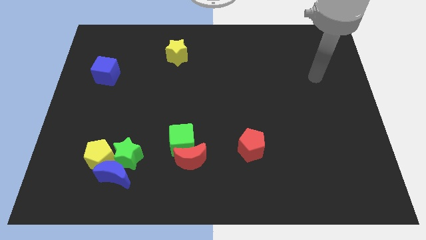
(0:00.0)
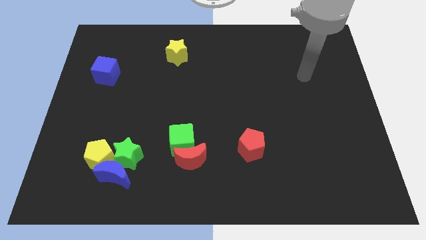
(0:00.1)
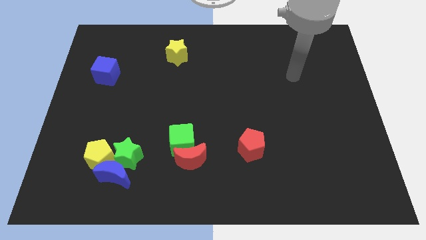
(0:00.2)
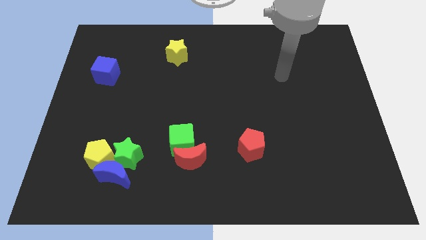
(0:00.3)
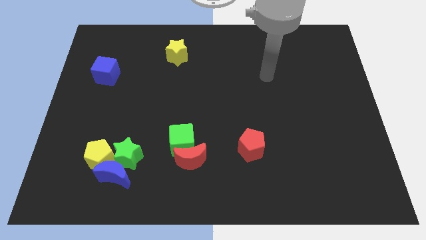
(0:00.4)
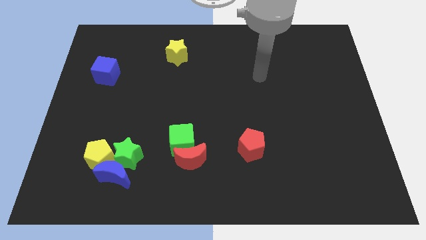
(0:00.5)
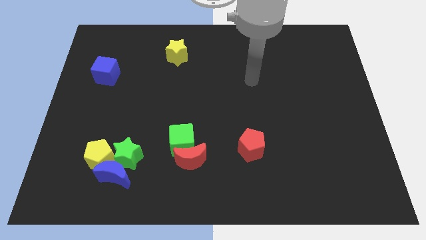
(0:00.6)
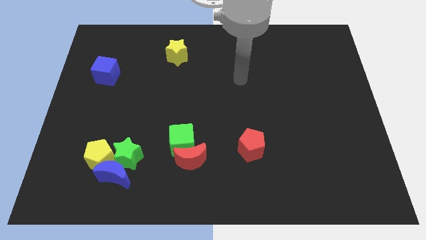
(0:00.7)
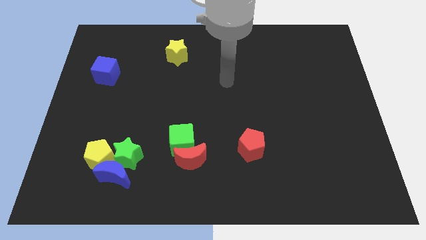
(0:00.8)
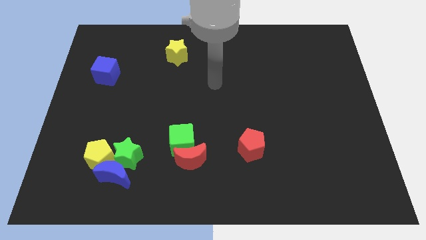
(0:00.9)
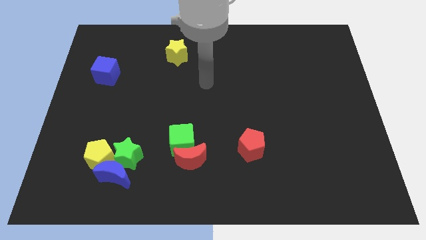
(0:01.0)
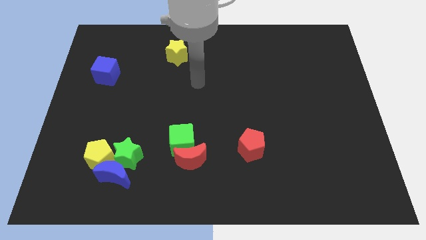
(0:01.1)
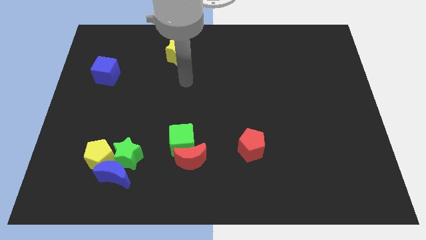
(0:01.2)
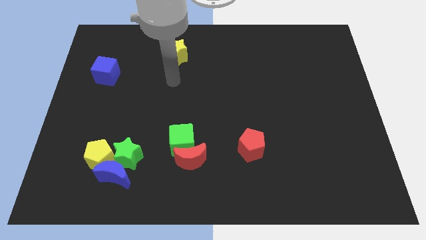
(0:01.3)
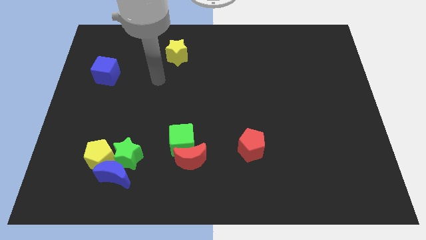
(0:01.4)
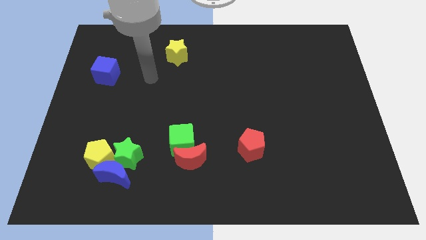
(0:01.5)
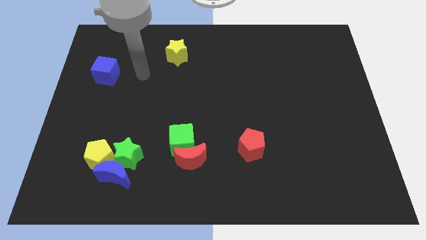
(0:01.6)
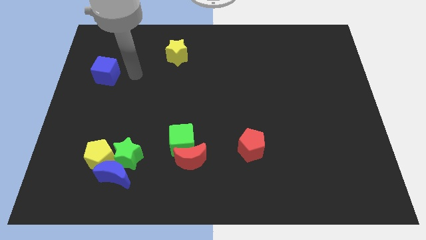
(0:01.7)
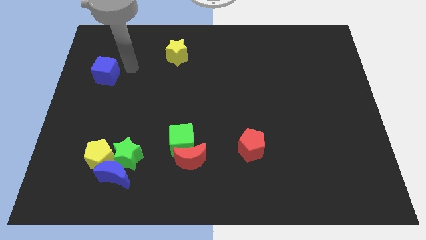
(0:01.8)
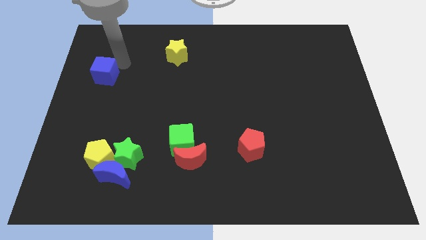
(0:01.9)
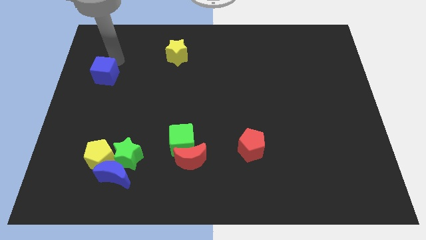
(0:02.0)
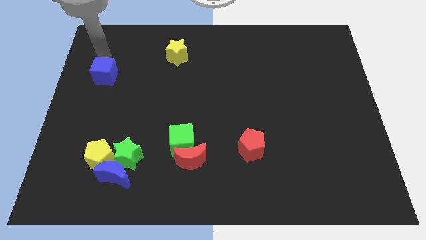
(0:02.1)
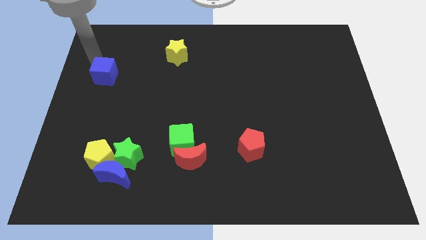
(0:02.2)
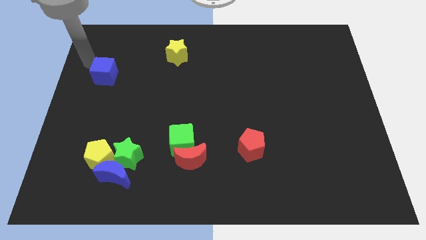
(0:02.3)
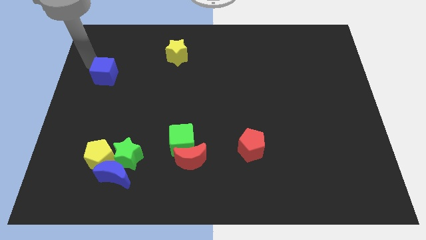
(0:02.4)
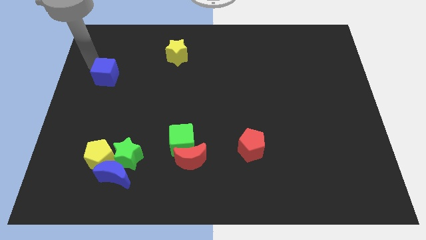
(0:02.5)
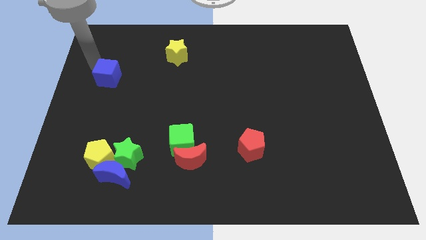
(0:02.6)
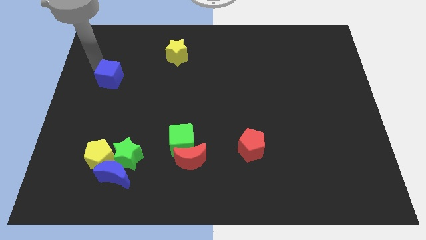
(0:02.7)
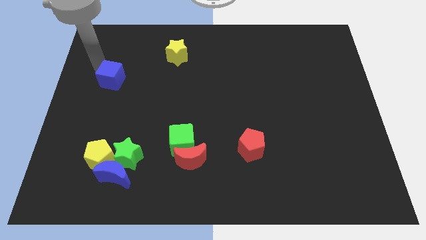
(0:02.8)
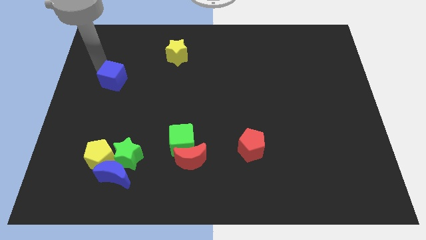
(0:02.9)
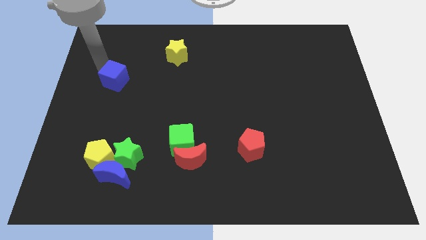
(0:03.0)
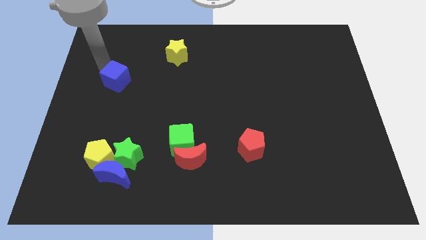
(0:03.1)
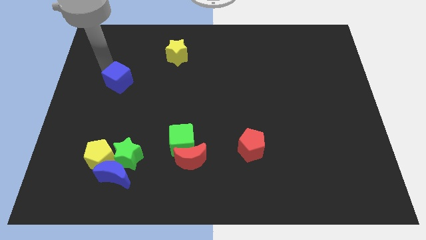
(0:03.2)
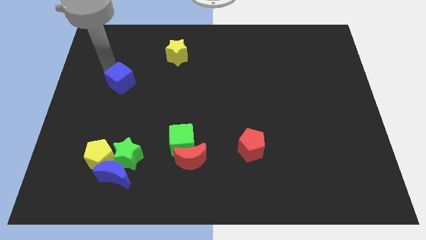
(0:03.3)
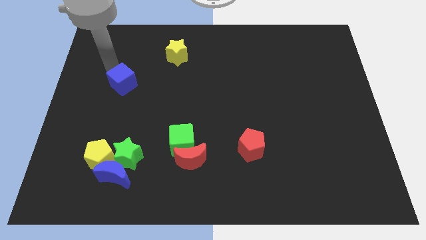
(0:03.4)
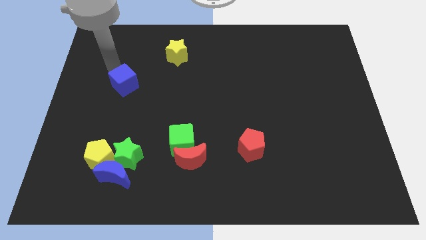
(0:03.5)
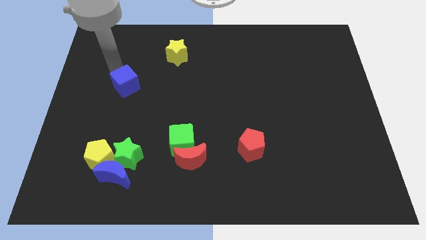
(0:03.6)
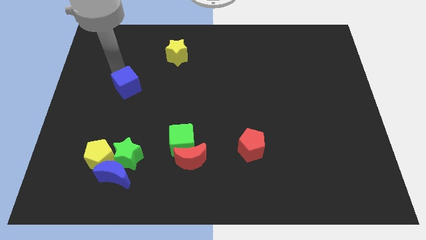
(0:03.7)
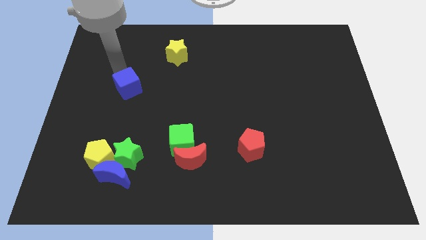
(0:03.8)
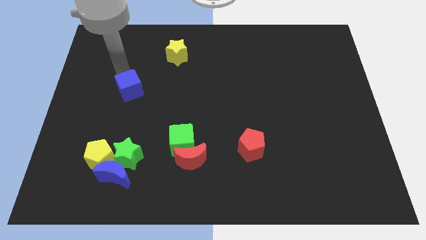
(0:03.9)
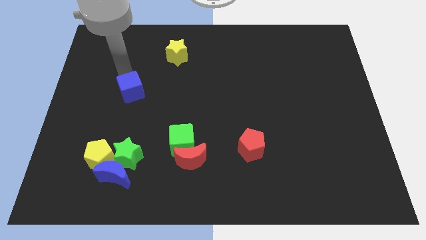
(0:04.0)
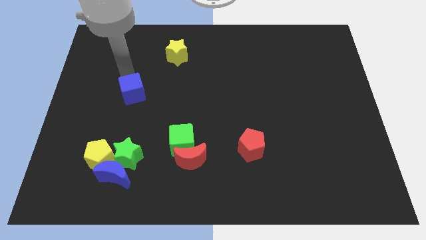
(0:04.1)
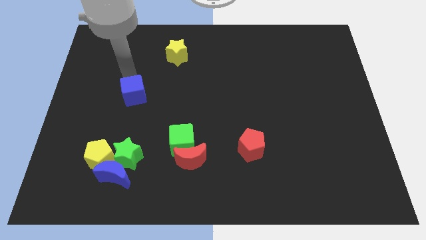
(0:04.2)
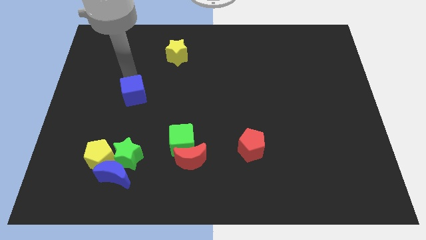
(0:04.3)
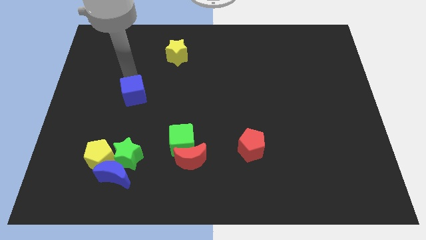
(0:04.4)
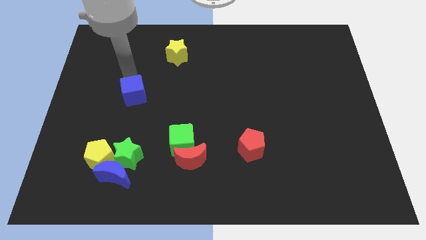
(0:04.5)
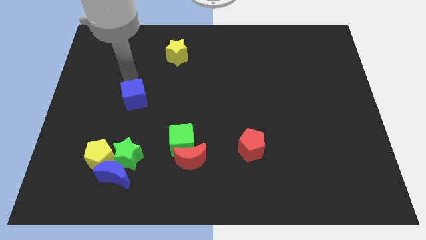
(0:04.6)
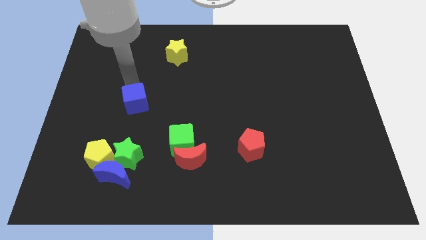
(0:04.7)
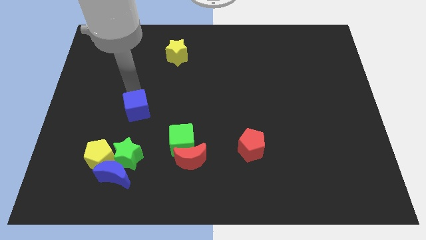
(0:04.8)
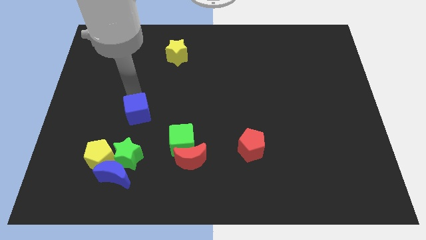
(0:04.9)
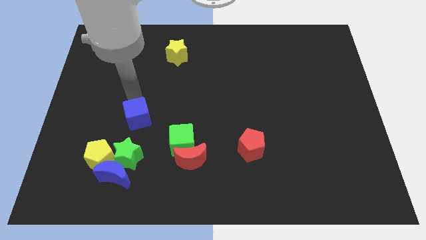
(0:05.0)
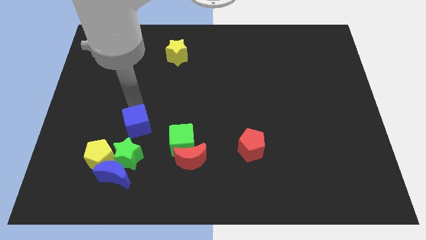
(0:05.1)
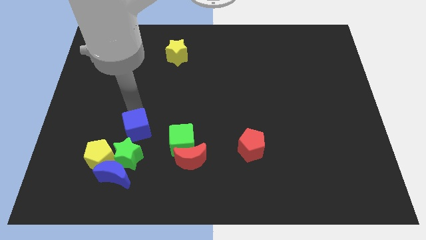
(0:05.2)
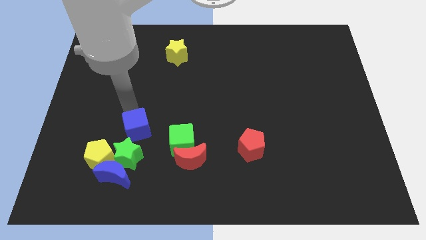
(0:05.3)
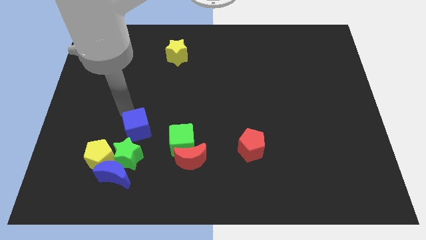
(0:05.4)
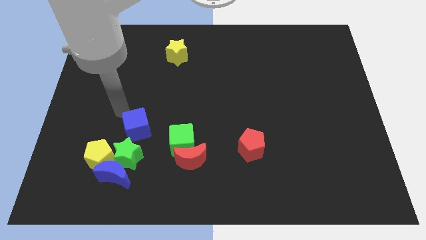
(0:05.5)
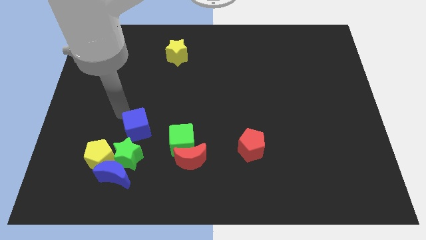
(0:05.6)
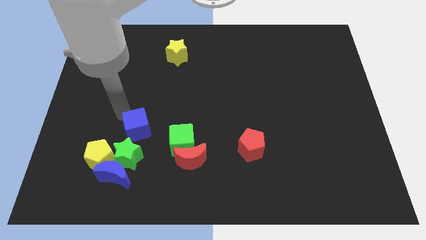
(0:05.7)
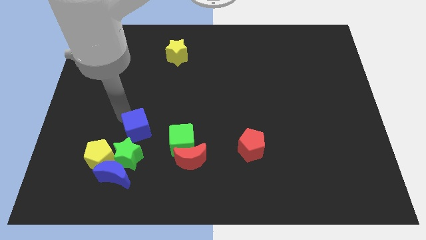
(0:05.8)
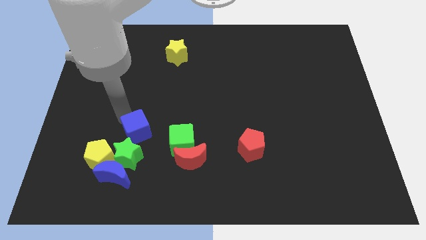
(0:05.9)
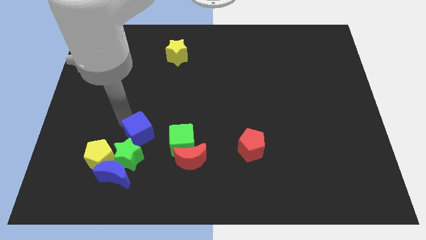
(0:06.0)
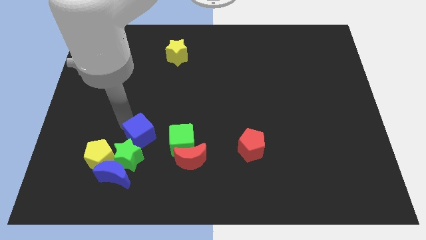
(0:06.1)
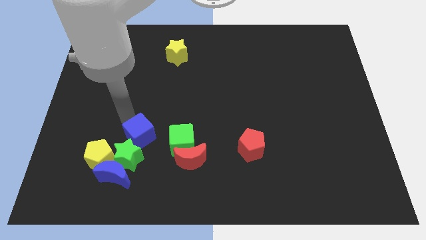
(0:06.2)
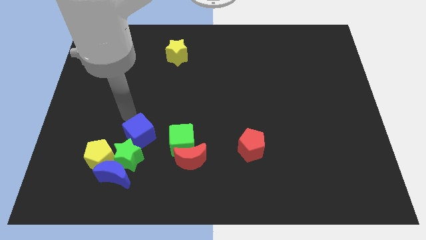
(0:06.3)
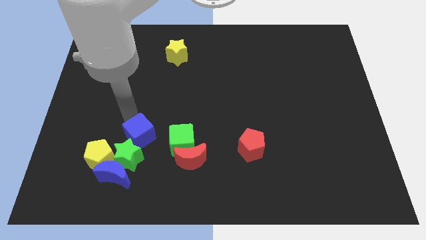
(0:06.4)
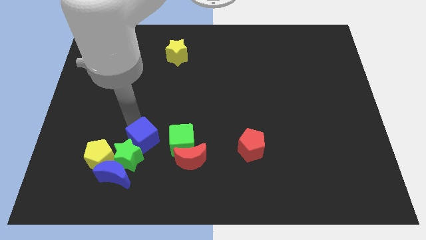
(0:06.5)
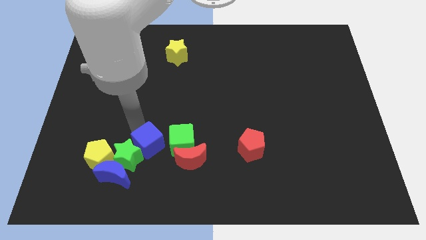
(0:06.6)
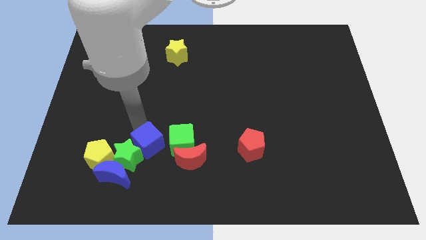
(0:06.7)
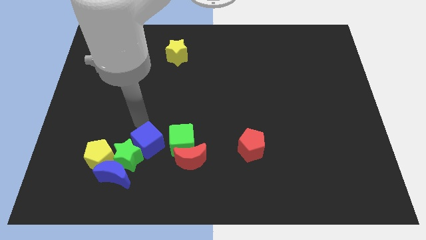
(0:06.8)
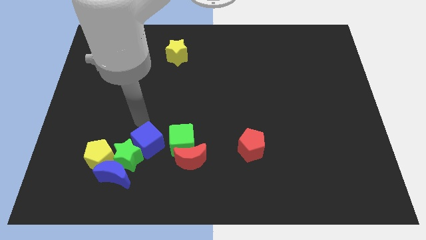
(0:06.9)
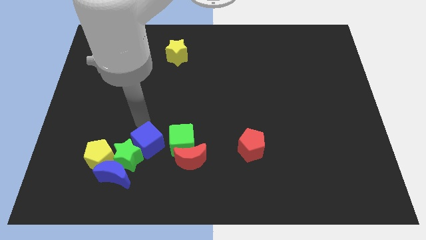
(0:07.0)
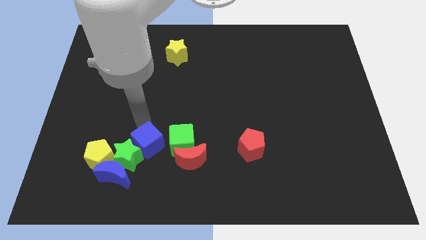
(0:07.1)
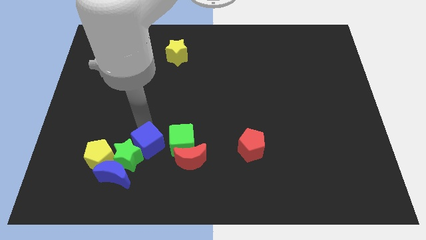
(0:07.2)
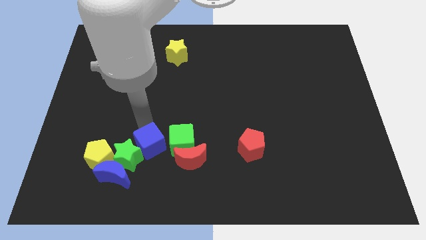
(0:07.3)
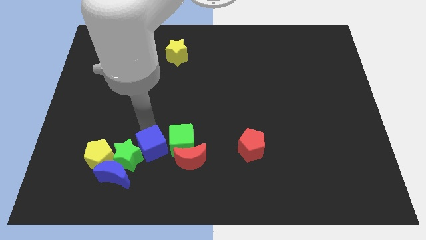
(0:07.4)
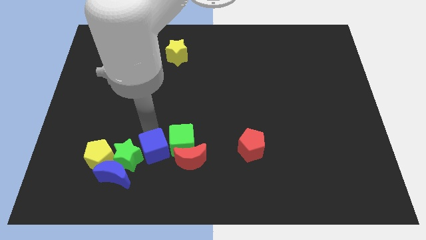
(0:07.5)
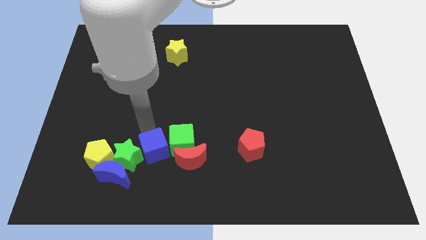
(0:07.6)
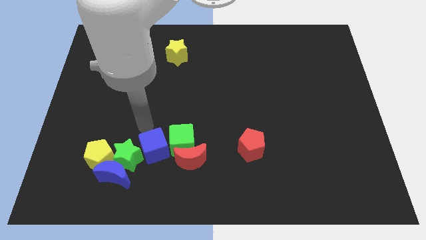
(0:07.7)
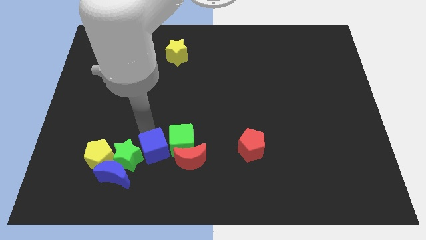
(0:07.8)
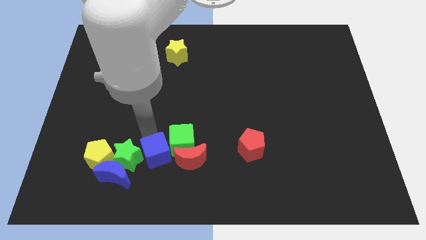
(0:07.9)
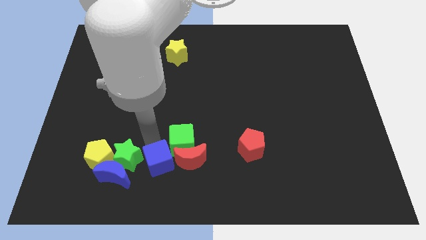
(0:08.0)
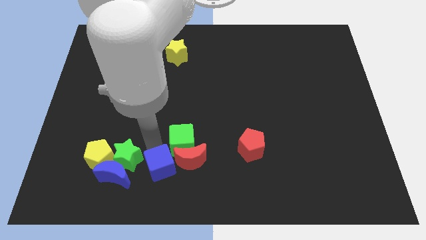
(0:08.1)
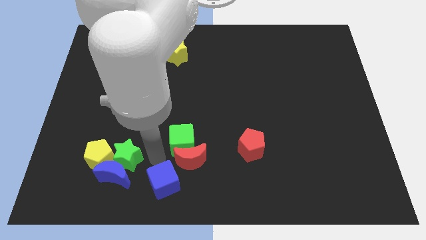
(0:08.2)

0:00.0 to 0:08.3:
slide the blue cube to the bottom side
